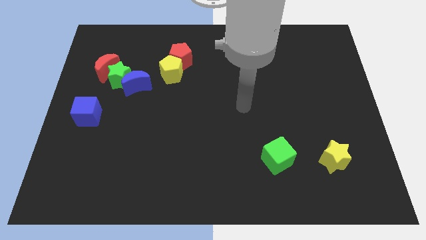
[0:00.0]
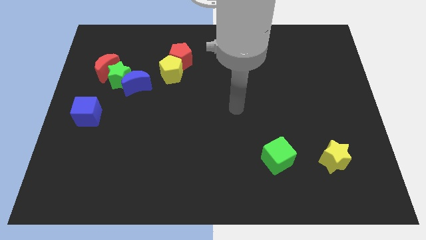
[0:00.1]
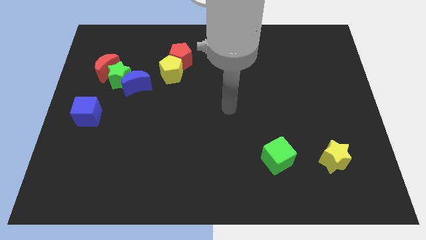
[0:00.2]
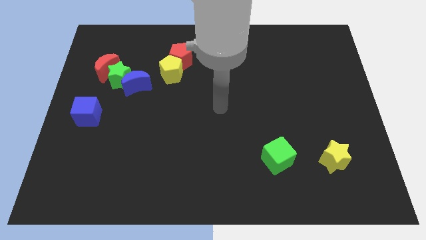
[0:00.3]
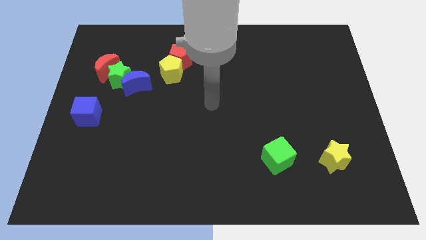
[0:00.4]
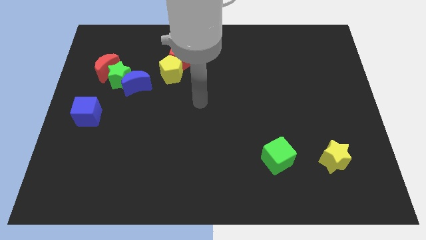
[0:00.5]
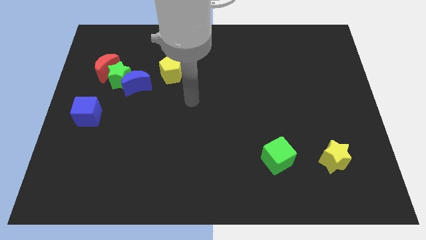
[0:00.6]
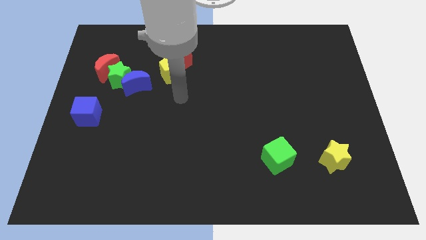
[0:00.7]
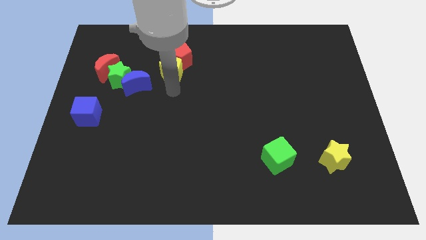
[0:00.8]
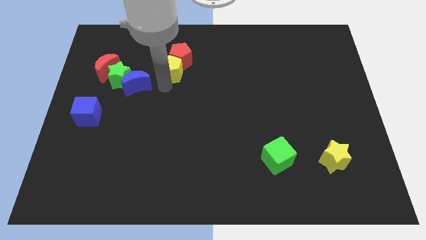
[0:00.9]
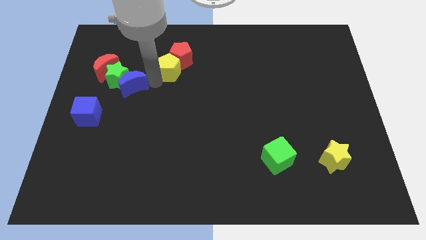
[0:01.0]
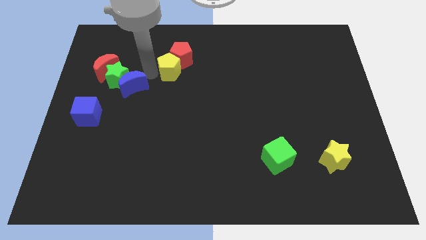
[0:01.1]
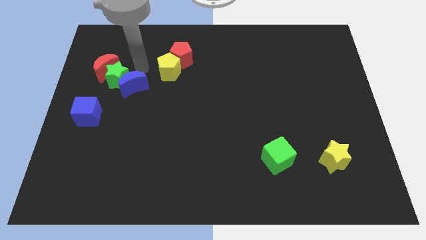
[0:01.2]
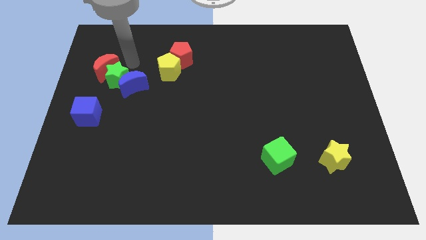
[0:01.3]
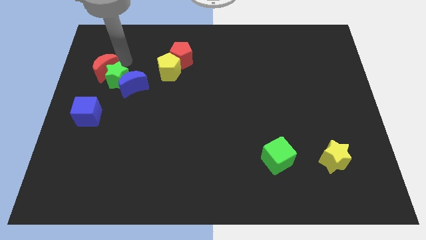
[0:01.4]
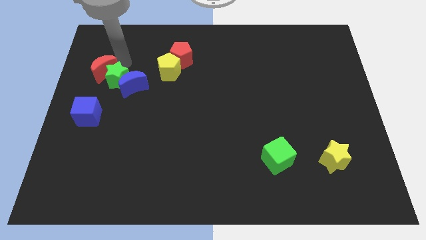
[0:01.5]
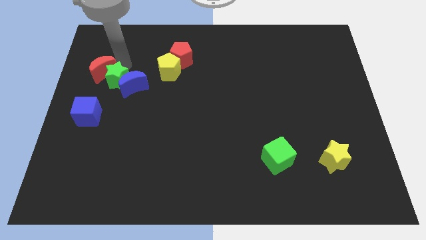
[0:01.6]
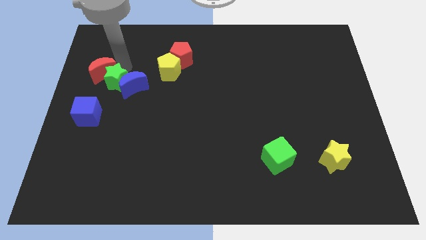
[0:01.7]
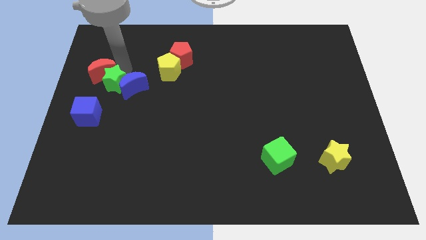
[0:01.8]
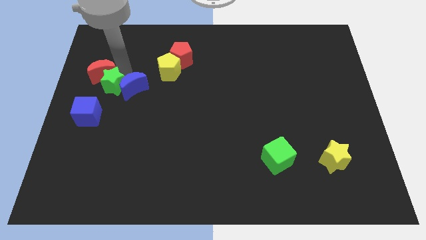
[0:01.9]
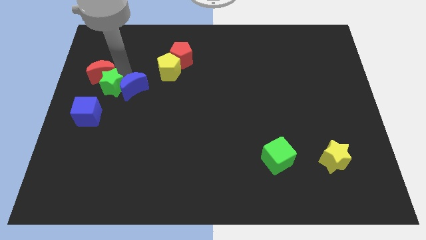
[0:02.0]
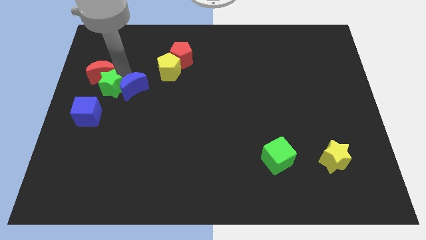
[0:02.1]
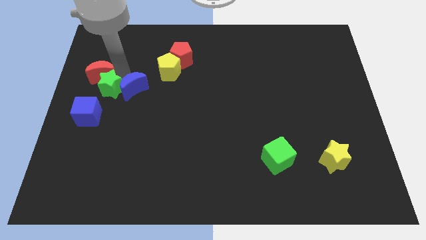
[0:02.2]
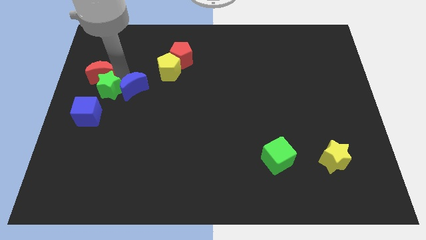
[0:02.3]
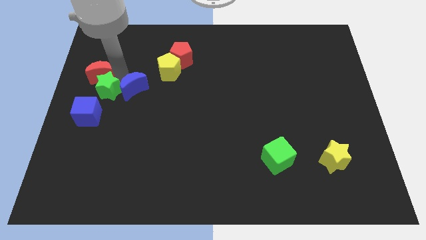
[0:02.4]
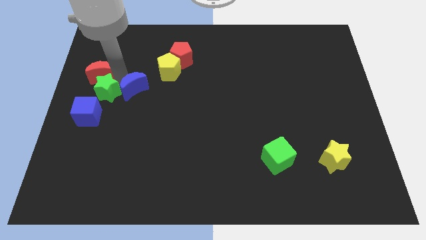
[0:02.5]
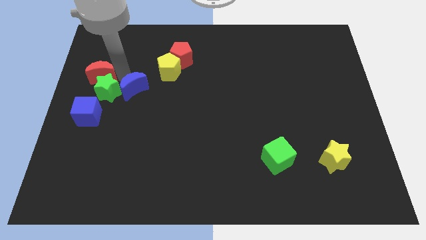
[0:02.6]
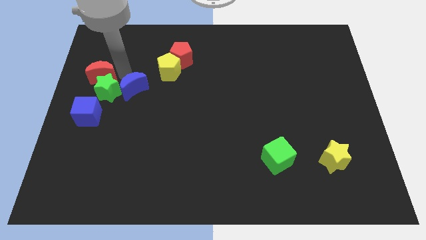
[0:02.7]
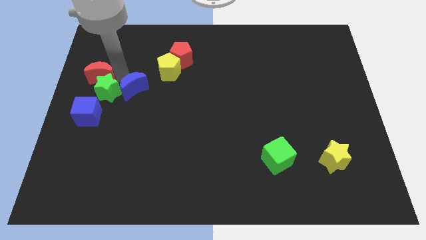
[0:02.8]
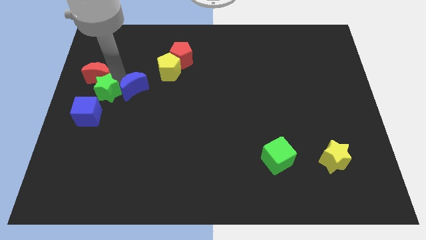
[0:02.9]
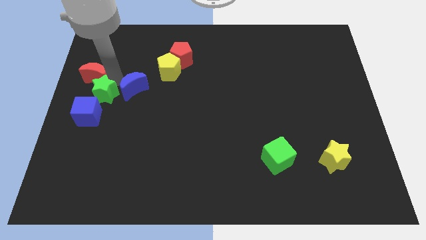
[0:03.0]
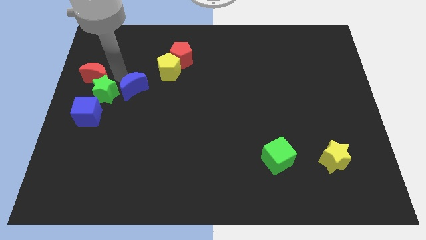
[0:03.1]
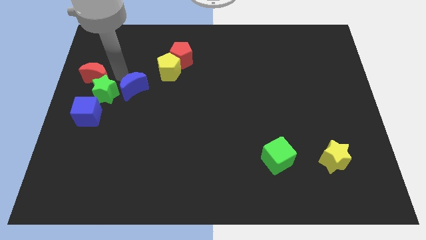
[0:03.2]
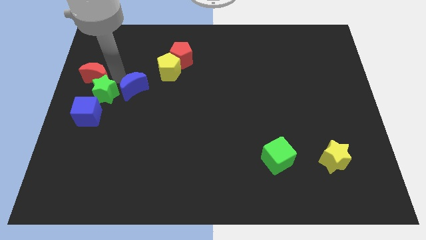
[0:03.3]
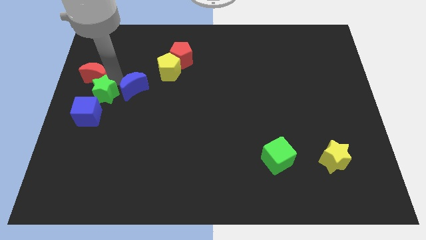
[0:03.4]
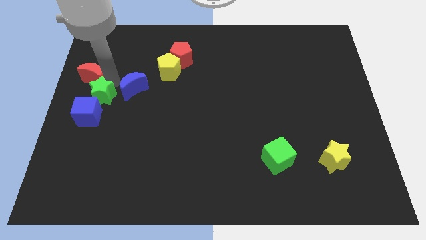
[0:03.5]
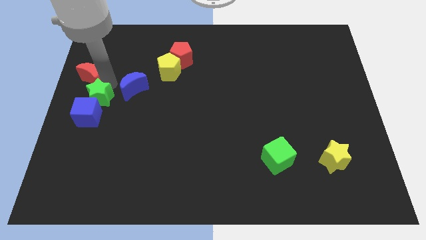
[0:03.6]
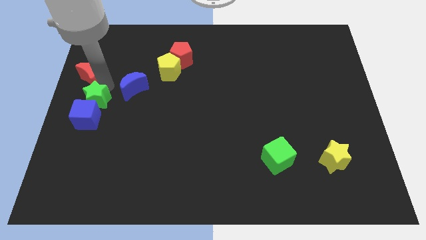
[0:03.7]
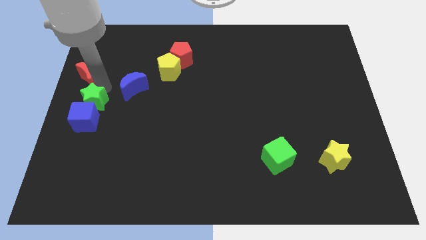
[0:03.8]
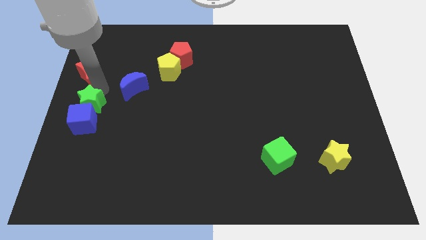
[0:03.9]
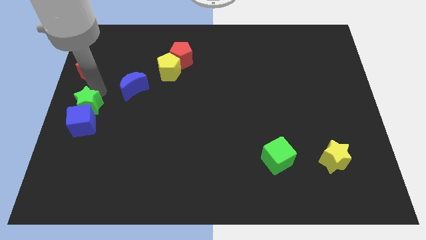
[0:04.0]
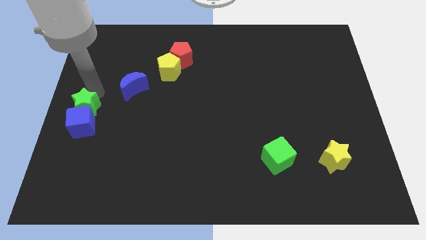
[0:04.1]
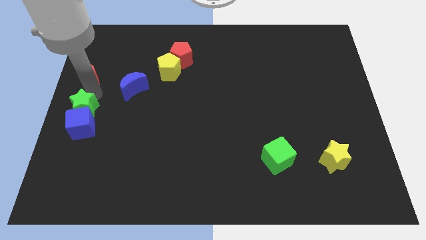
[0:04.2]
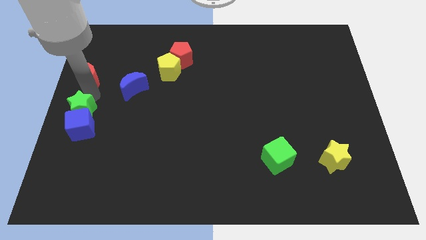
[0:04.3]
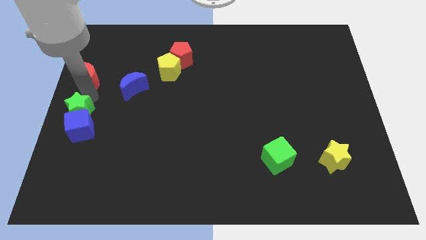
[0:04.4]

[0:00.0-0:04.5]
separate the green star from the blue moon and red moon

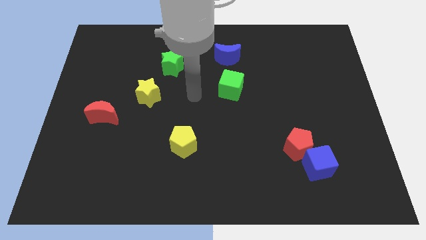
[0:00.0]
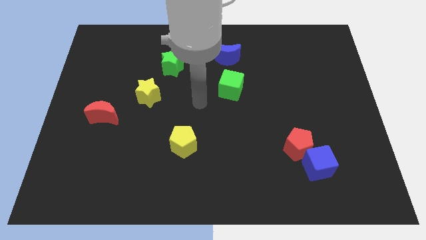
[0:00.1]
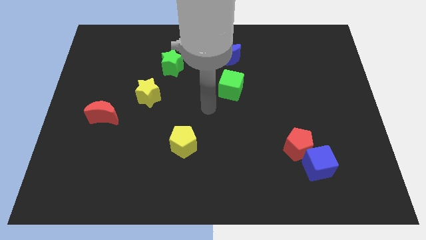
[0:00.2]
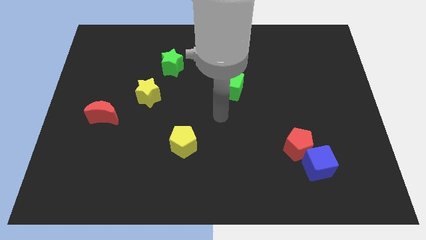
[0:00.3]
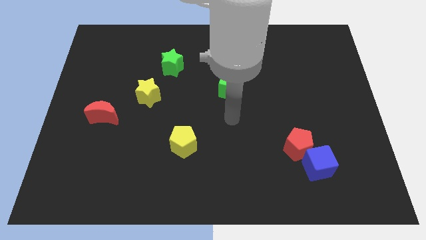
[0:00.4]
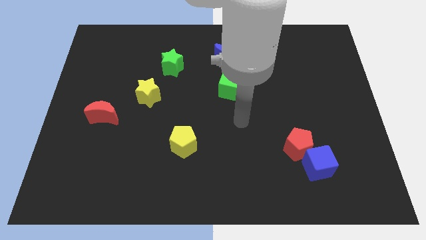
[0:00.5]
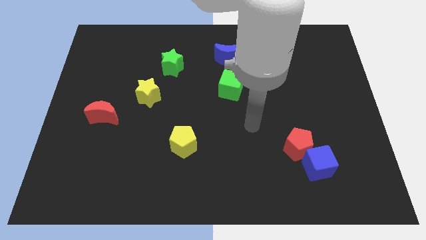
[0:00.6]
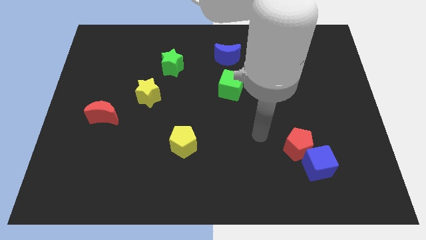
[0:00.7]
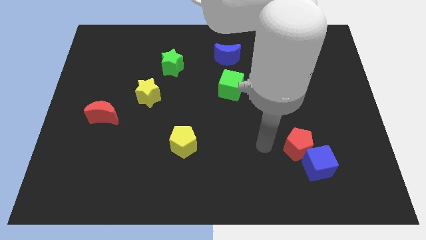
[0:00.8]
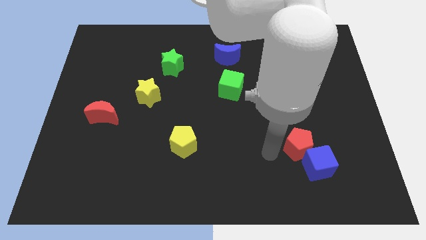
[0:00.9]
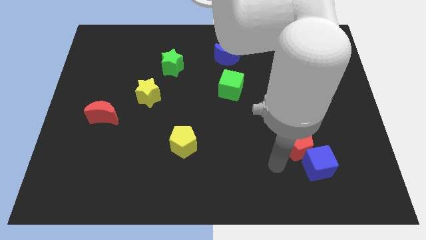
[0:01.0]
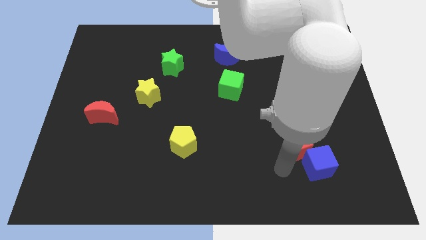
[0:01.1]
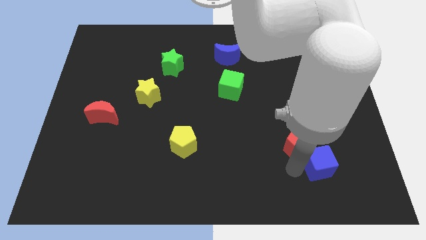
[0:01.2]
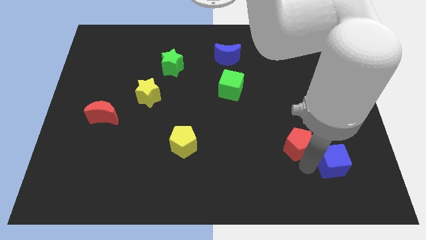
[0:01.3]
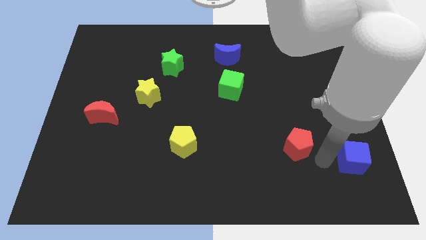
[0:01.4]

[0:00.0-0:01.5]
move the red pentagon away from the blue cube

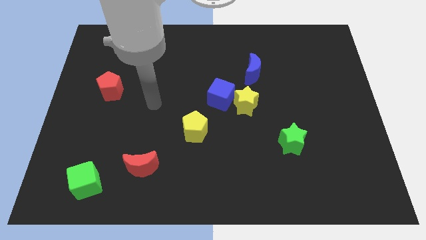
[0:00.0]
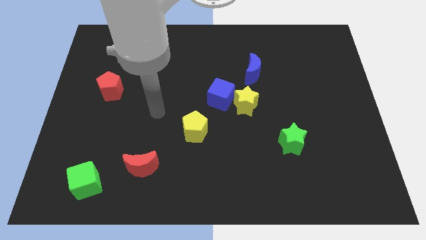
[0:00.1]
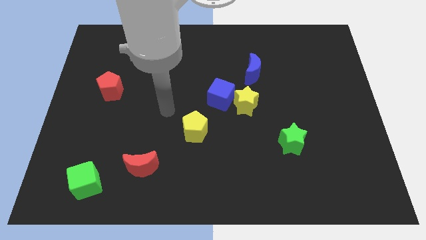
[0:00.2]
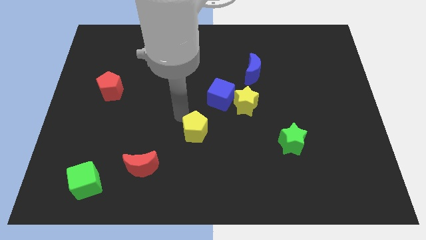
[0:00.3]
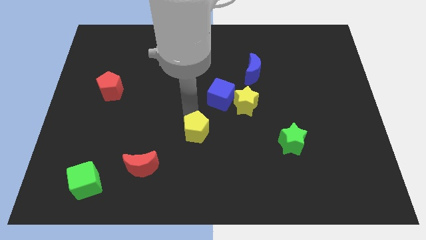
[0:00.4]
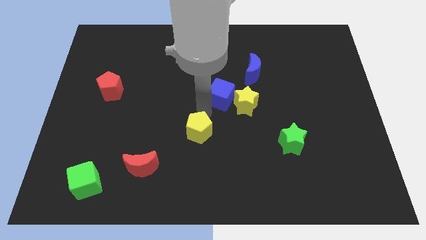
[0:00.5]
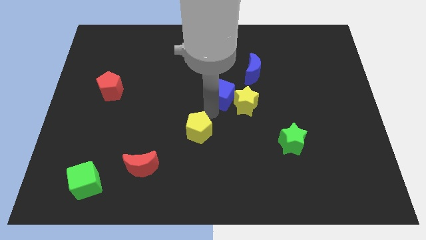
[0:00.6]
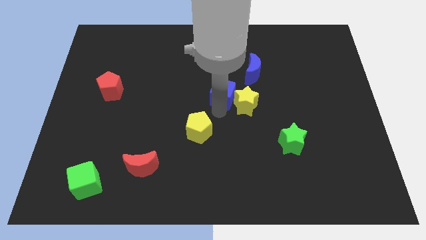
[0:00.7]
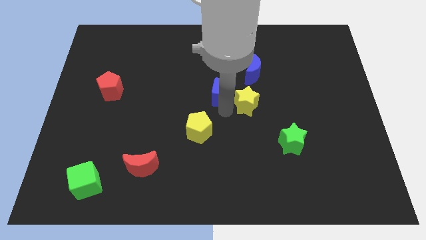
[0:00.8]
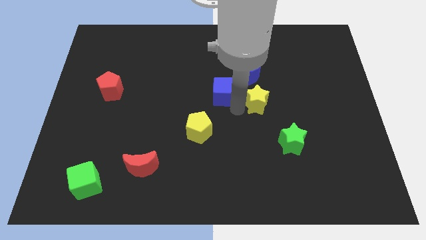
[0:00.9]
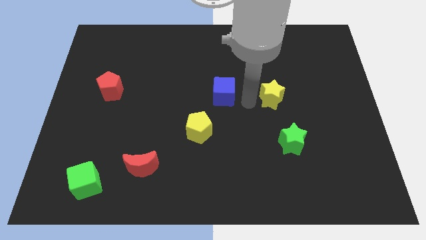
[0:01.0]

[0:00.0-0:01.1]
pull the blue cube apart from the yellow star

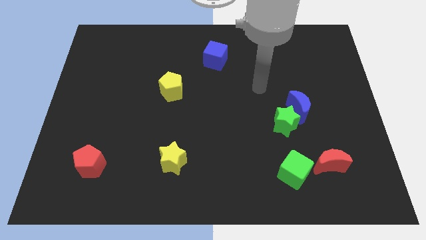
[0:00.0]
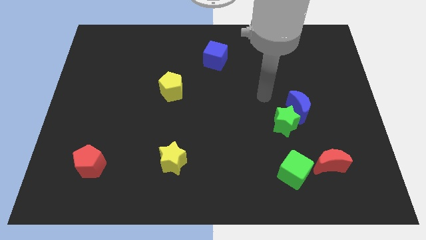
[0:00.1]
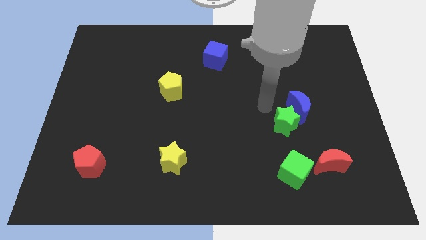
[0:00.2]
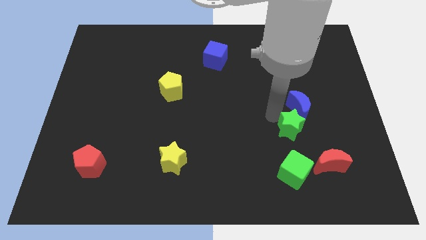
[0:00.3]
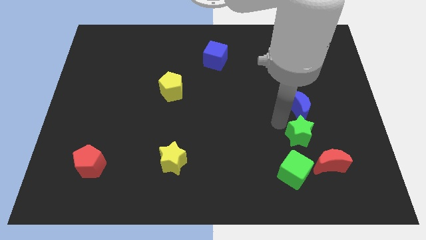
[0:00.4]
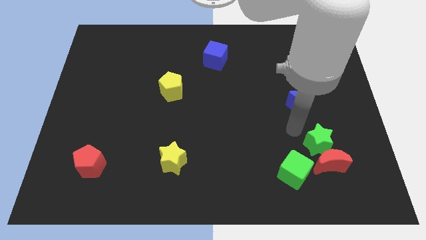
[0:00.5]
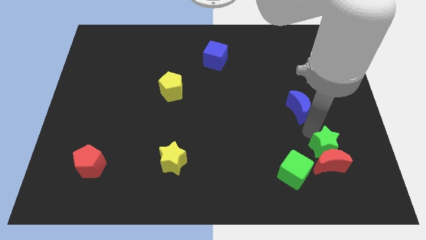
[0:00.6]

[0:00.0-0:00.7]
pull the blue moon apart from the green star

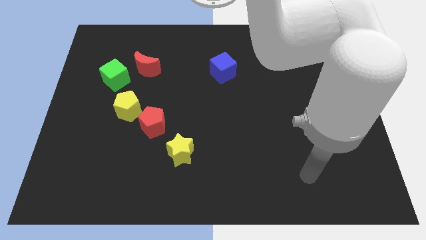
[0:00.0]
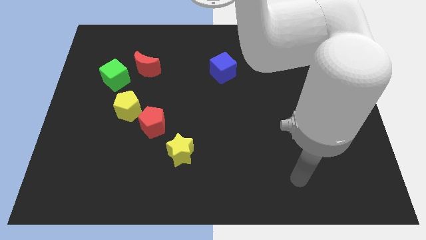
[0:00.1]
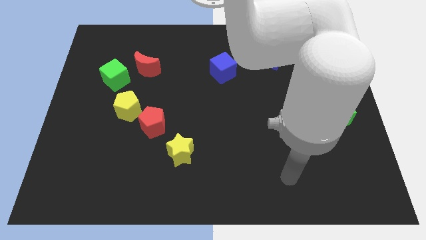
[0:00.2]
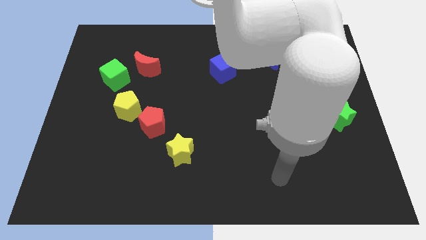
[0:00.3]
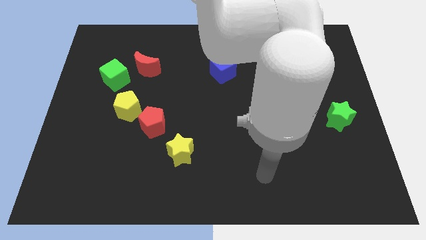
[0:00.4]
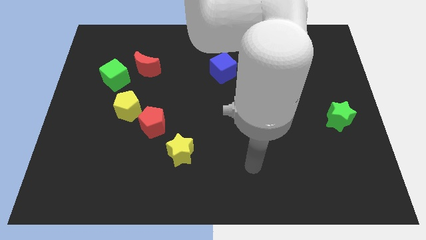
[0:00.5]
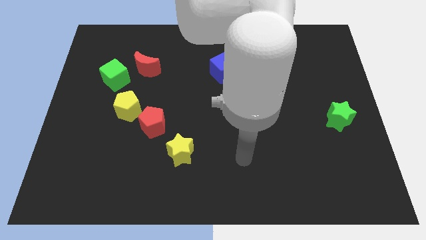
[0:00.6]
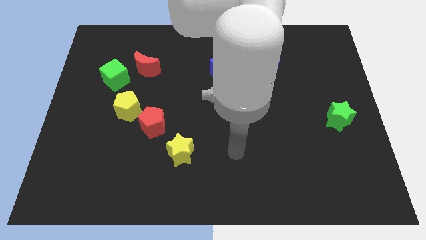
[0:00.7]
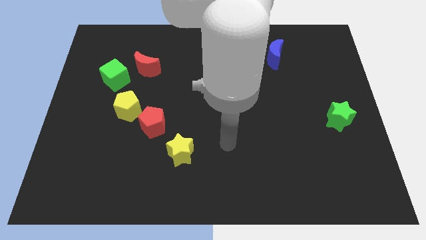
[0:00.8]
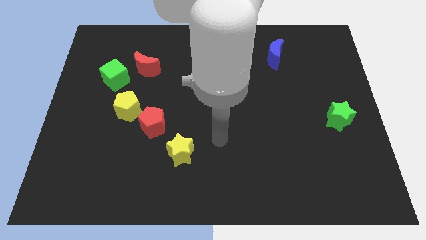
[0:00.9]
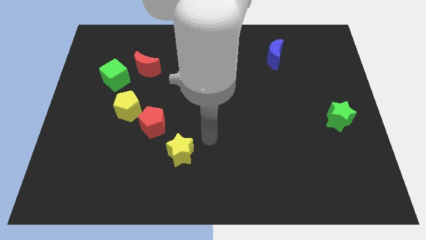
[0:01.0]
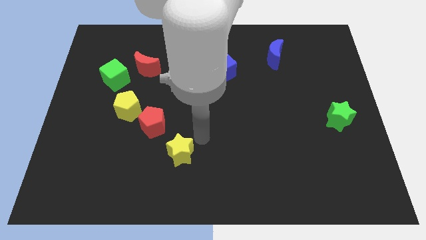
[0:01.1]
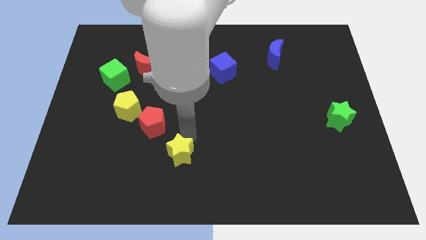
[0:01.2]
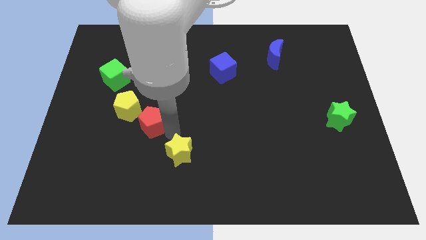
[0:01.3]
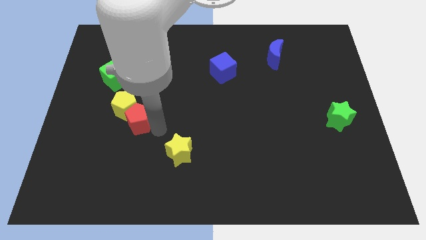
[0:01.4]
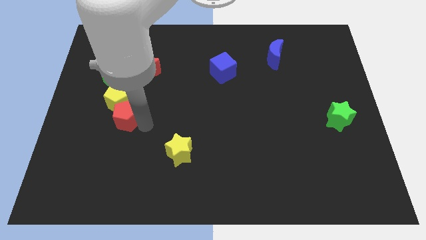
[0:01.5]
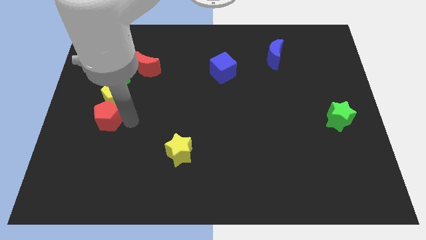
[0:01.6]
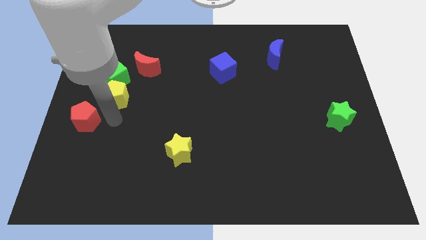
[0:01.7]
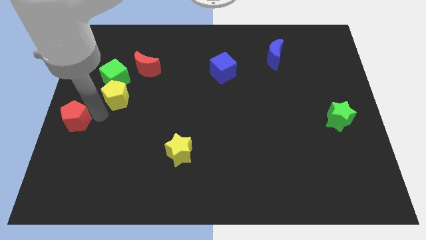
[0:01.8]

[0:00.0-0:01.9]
pull the yellow pentagon apart from the red pentagon
